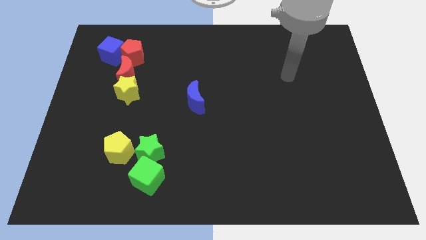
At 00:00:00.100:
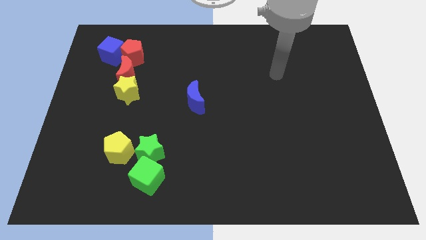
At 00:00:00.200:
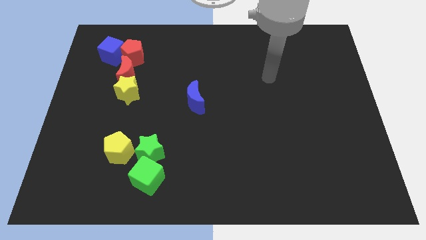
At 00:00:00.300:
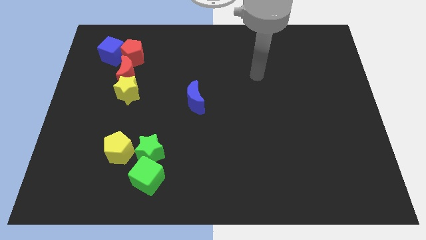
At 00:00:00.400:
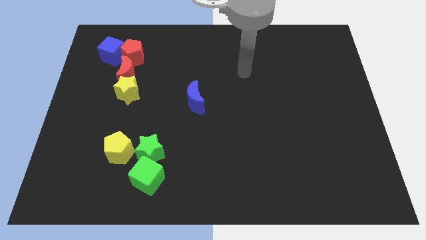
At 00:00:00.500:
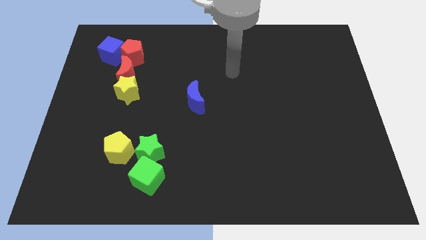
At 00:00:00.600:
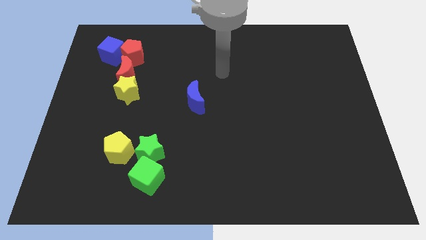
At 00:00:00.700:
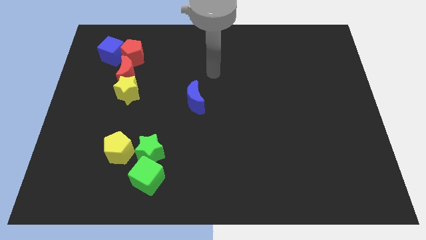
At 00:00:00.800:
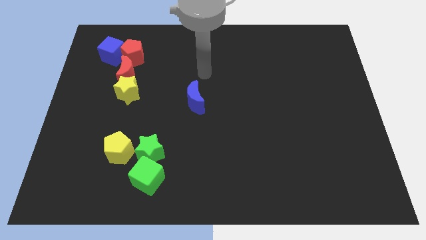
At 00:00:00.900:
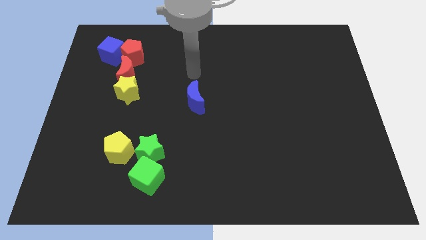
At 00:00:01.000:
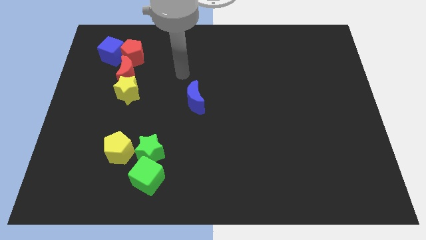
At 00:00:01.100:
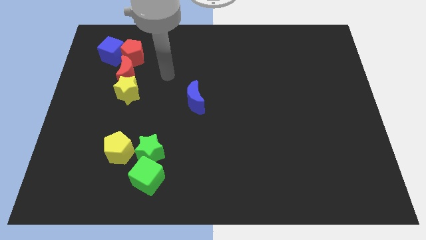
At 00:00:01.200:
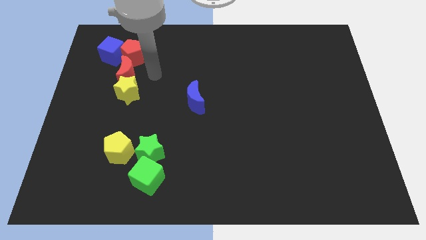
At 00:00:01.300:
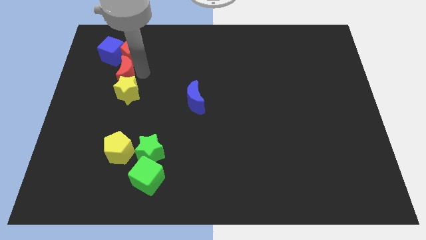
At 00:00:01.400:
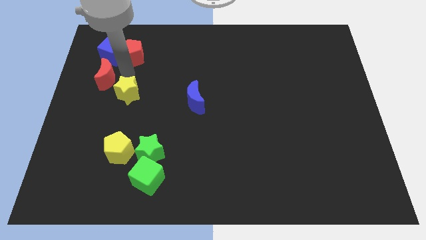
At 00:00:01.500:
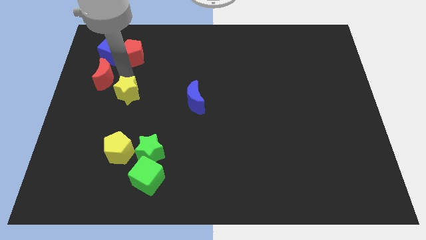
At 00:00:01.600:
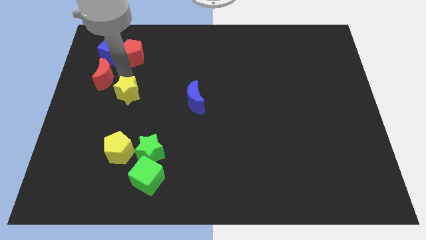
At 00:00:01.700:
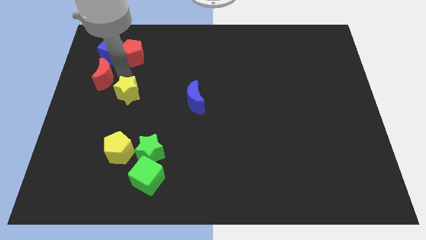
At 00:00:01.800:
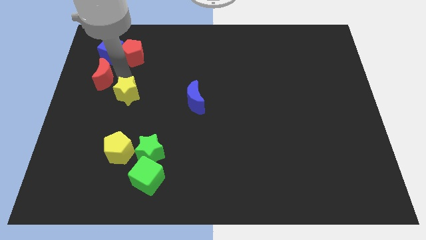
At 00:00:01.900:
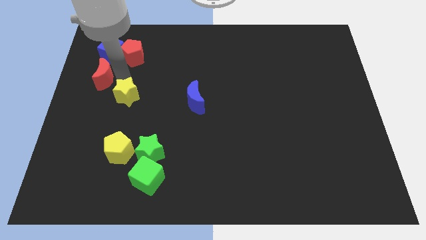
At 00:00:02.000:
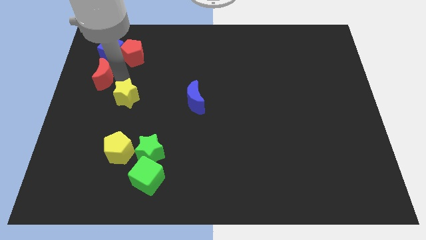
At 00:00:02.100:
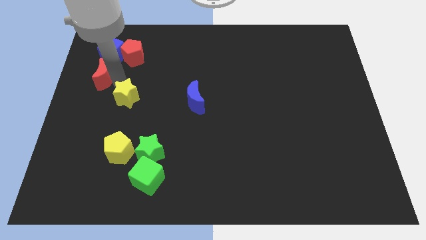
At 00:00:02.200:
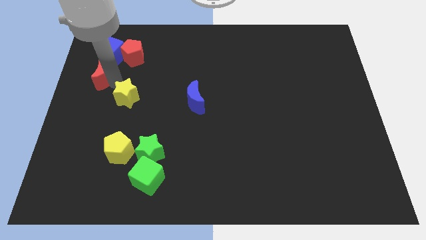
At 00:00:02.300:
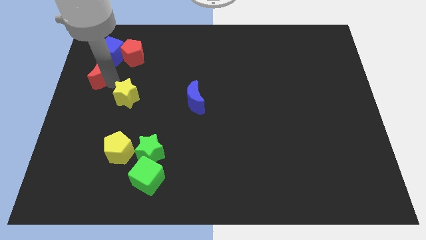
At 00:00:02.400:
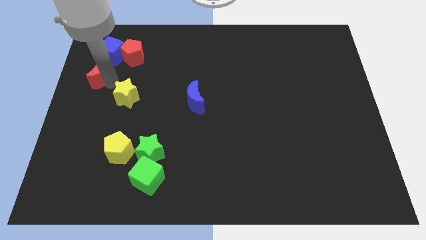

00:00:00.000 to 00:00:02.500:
separate the yellow star from the red moon

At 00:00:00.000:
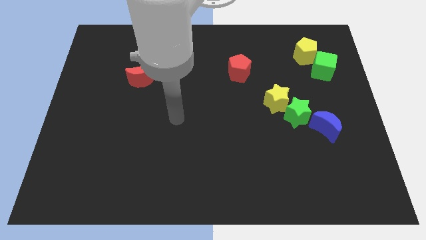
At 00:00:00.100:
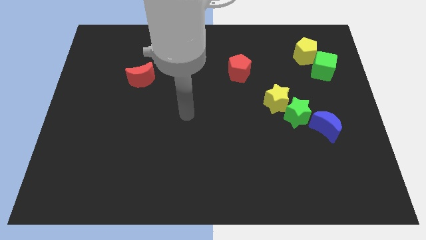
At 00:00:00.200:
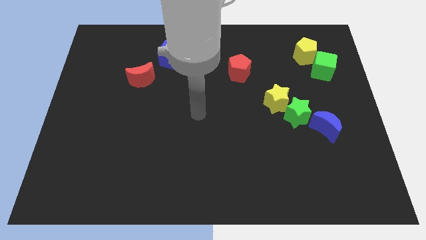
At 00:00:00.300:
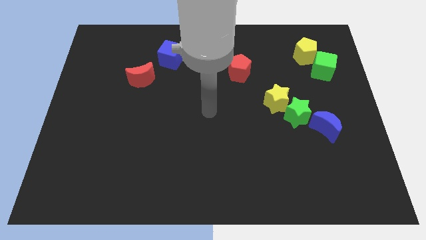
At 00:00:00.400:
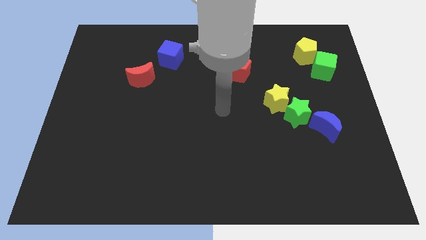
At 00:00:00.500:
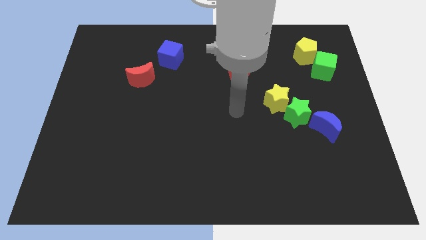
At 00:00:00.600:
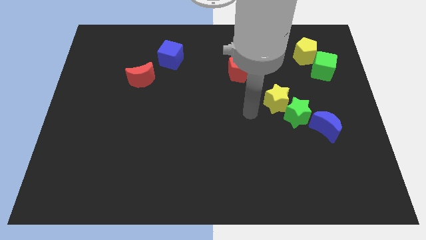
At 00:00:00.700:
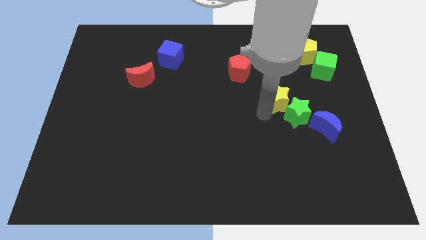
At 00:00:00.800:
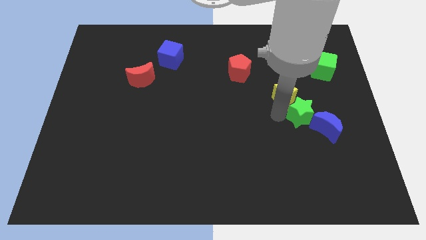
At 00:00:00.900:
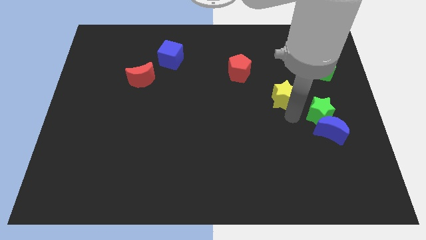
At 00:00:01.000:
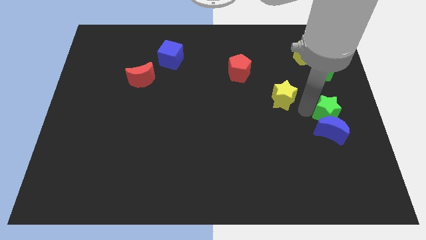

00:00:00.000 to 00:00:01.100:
move the yellow star away from the green star

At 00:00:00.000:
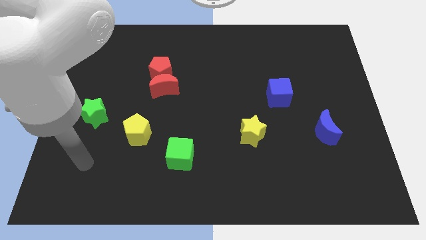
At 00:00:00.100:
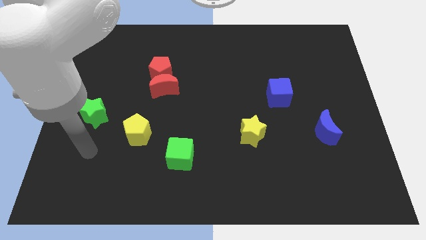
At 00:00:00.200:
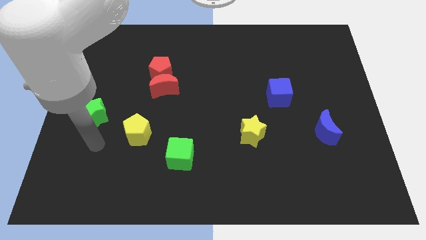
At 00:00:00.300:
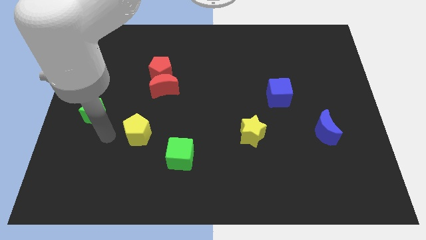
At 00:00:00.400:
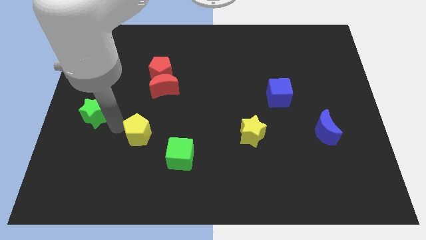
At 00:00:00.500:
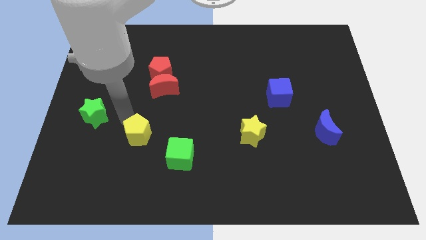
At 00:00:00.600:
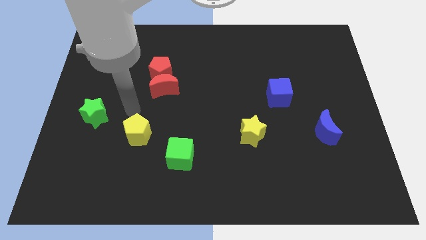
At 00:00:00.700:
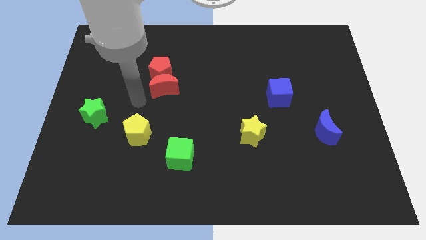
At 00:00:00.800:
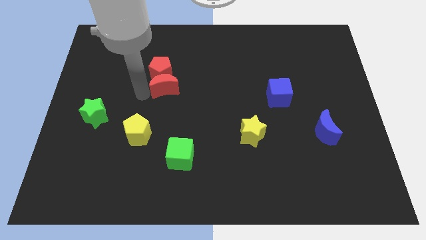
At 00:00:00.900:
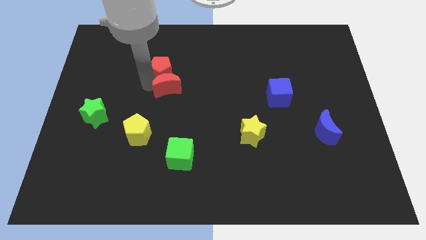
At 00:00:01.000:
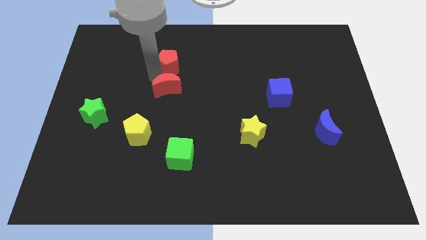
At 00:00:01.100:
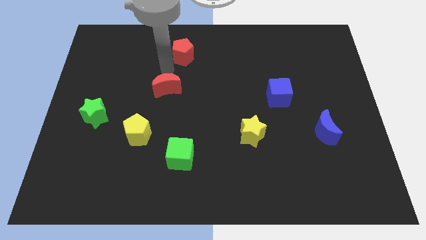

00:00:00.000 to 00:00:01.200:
separate the red moon from the red pentagon

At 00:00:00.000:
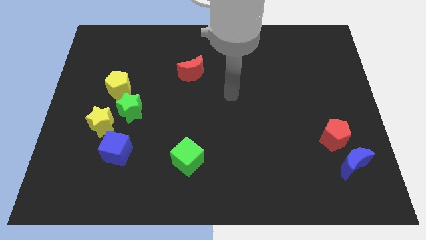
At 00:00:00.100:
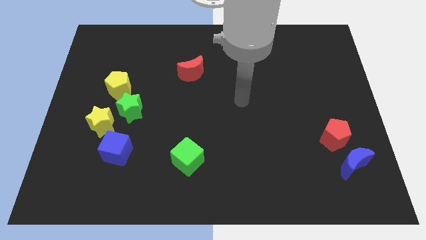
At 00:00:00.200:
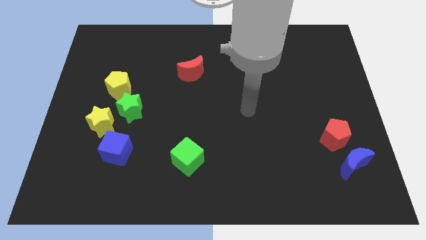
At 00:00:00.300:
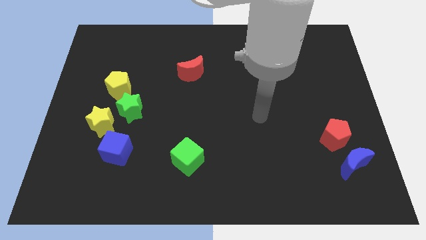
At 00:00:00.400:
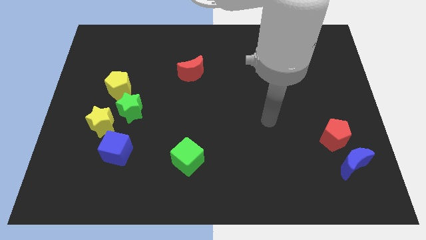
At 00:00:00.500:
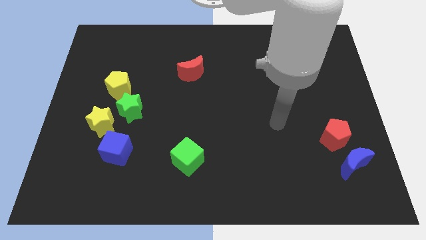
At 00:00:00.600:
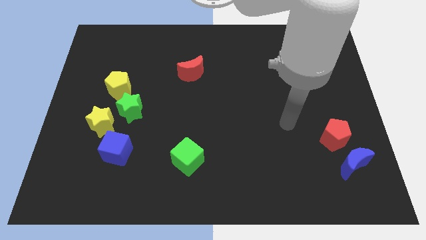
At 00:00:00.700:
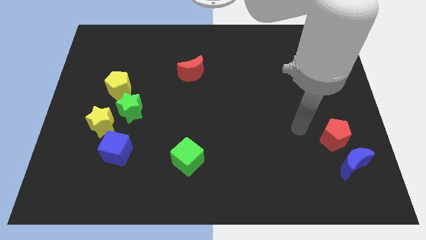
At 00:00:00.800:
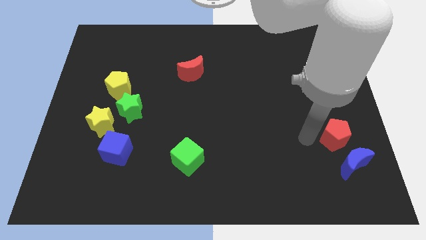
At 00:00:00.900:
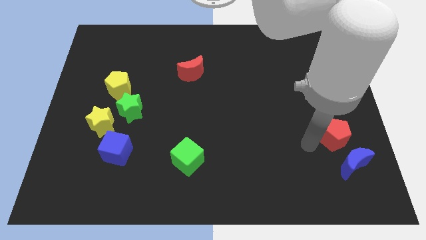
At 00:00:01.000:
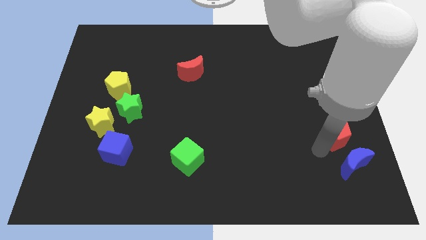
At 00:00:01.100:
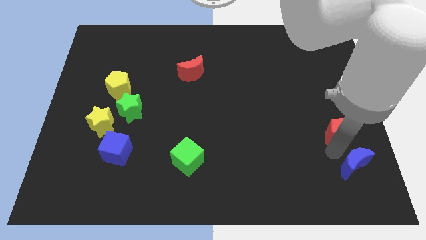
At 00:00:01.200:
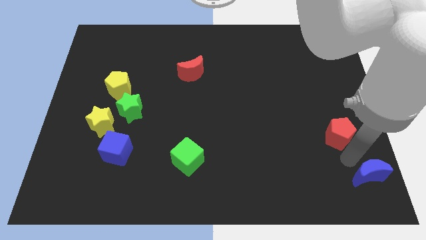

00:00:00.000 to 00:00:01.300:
move the red pentagon away from the blue moon

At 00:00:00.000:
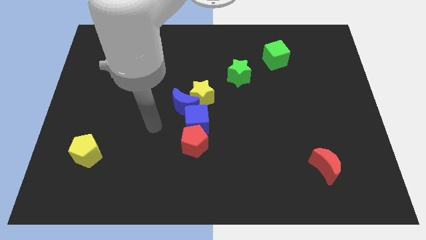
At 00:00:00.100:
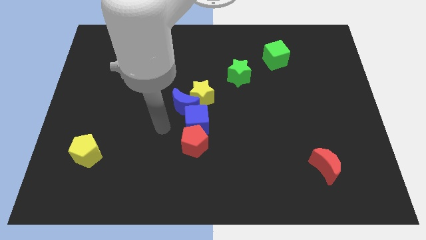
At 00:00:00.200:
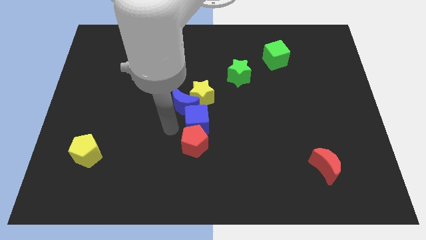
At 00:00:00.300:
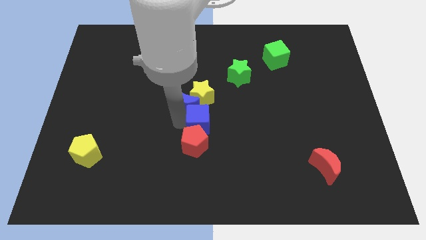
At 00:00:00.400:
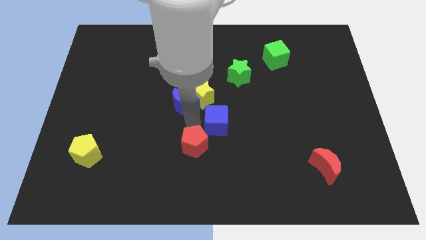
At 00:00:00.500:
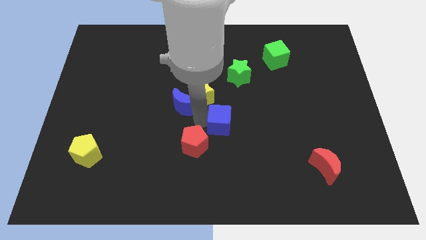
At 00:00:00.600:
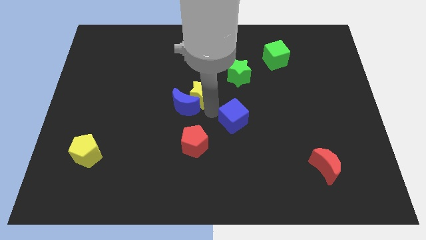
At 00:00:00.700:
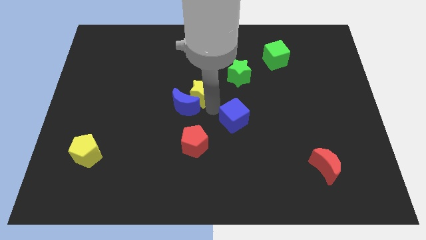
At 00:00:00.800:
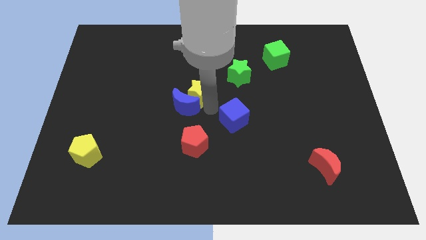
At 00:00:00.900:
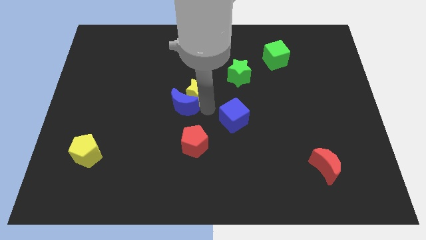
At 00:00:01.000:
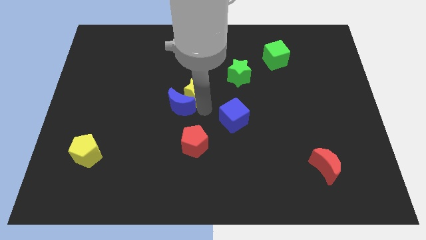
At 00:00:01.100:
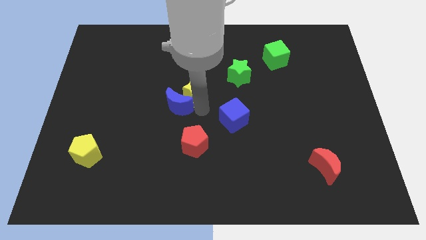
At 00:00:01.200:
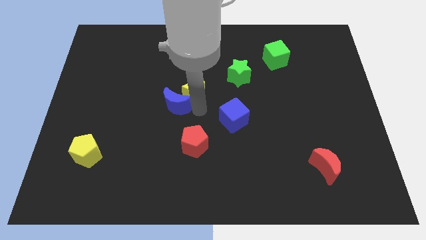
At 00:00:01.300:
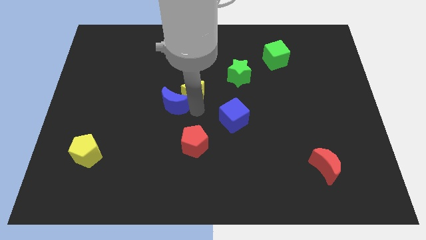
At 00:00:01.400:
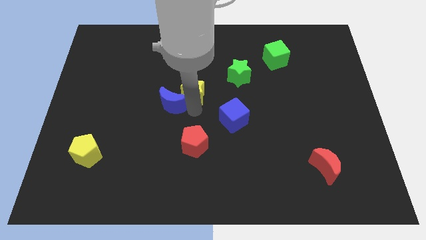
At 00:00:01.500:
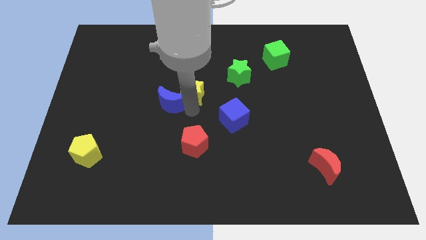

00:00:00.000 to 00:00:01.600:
separate the blue moon from the yellow star and blue cube

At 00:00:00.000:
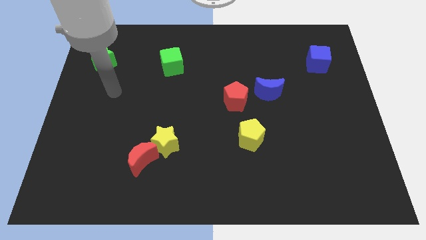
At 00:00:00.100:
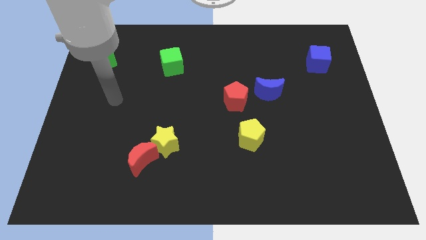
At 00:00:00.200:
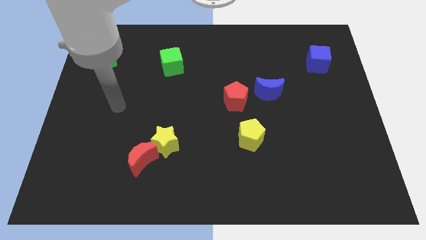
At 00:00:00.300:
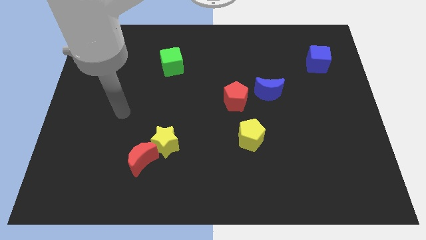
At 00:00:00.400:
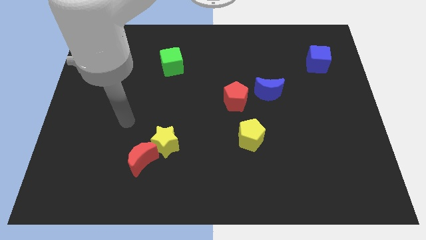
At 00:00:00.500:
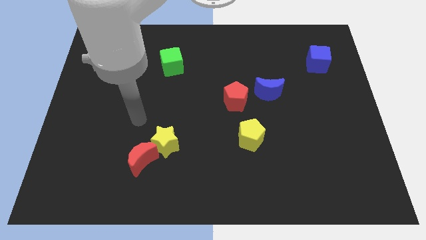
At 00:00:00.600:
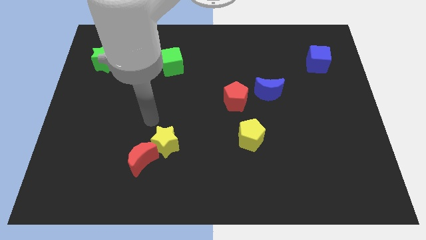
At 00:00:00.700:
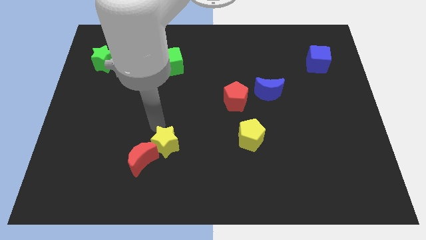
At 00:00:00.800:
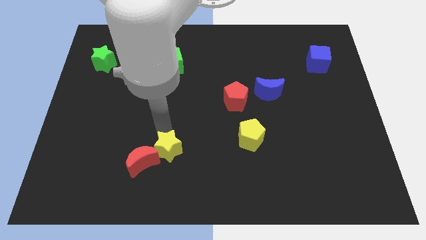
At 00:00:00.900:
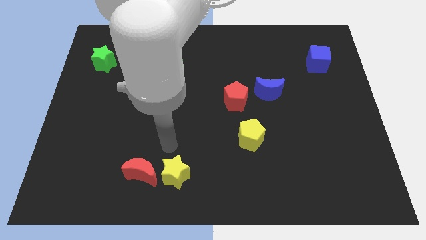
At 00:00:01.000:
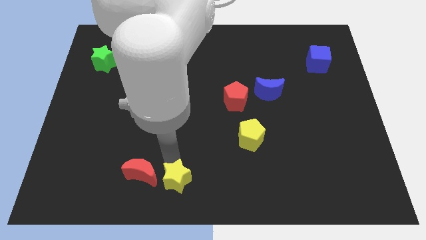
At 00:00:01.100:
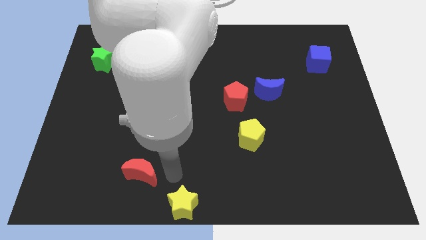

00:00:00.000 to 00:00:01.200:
pull the red moon apart from the yellow star

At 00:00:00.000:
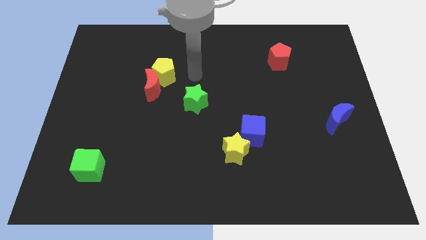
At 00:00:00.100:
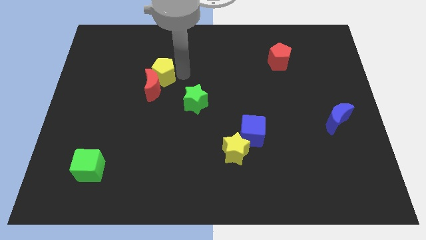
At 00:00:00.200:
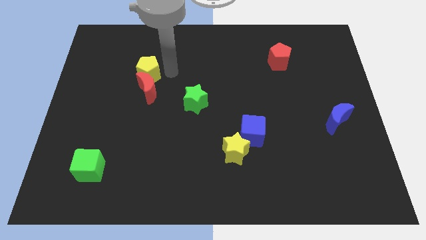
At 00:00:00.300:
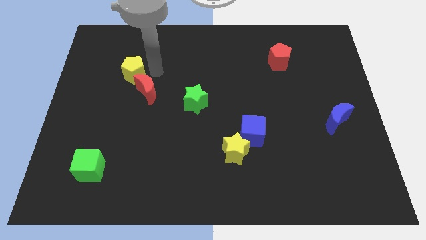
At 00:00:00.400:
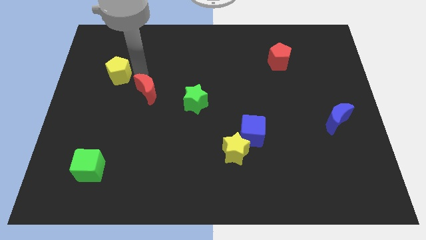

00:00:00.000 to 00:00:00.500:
pull the red moon apart from the yellow pentagon
